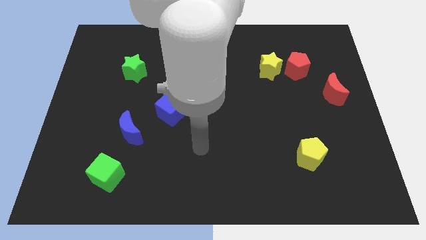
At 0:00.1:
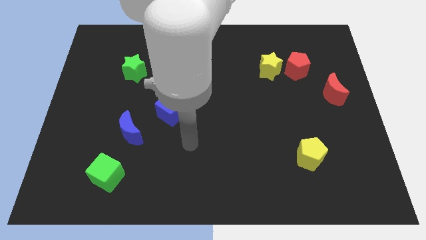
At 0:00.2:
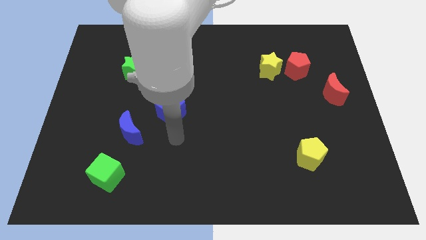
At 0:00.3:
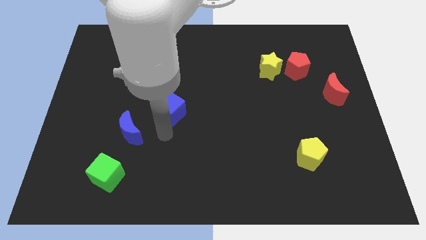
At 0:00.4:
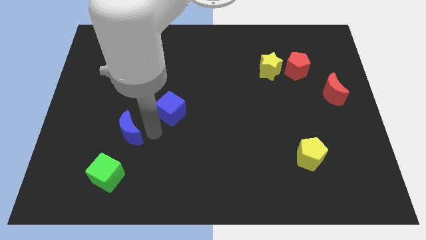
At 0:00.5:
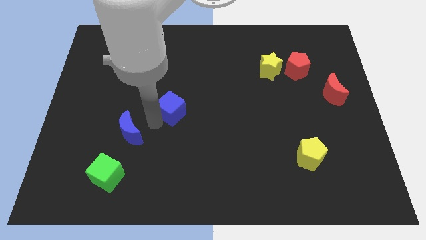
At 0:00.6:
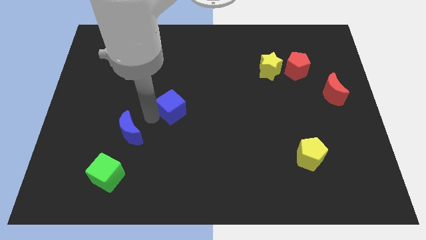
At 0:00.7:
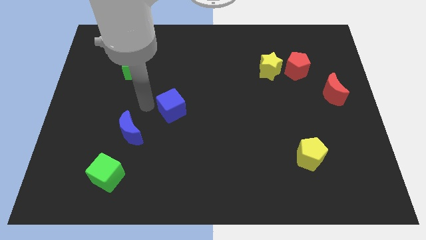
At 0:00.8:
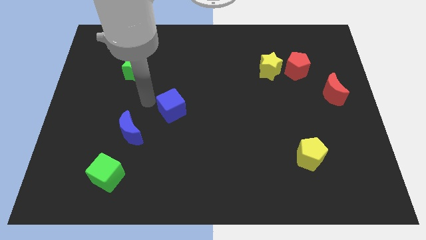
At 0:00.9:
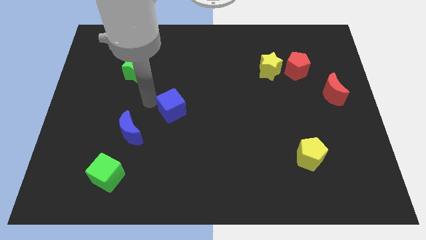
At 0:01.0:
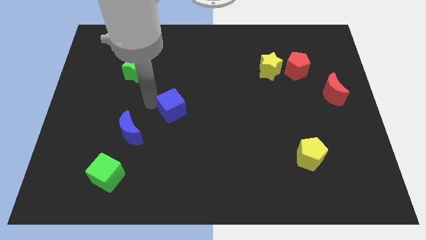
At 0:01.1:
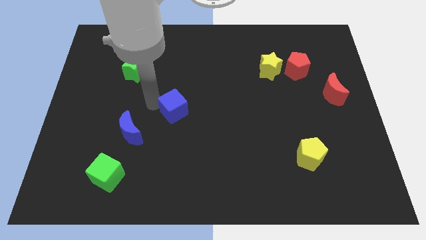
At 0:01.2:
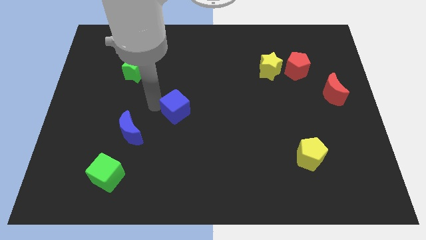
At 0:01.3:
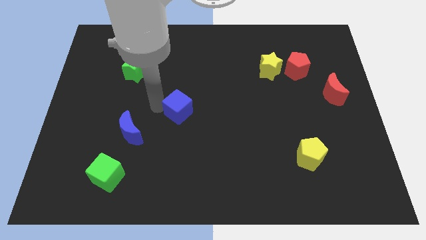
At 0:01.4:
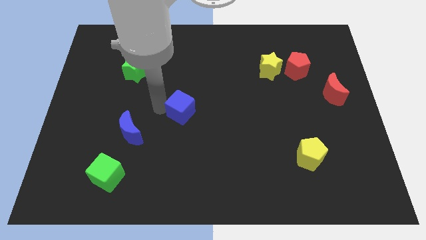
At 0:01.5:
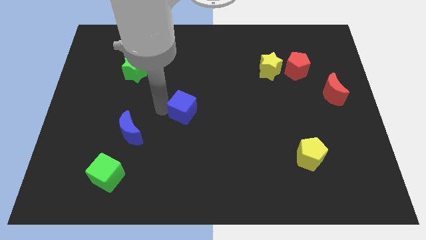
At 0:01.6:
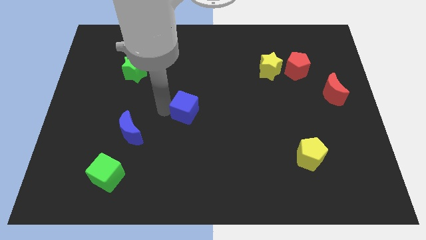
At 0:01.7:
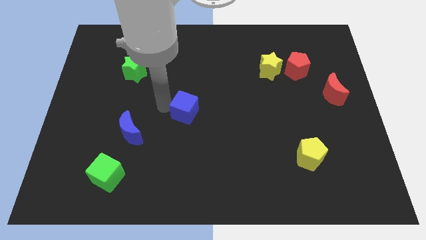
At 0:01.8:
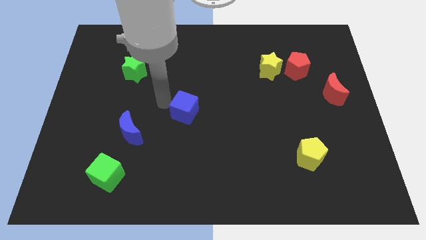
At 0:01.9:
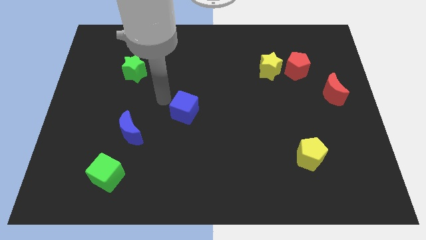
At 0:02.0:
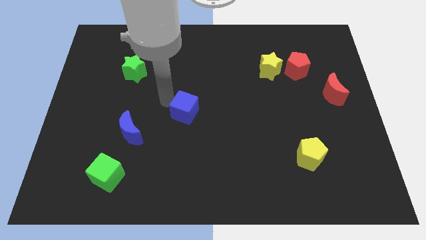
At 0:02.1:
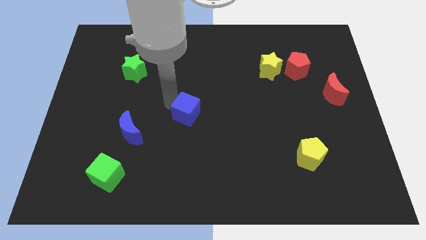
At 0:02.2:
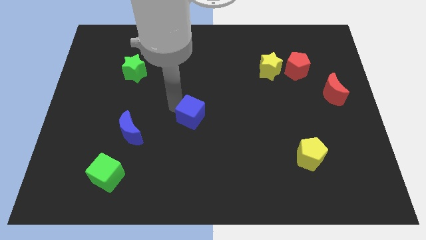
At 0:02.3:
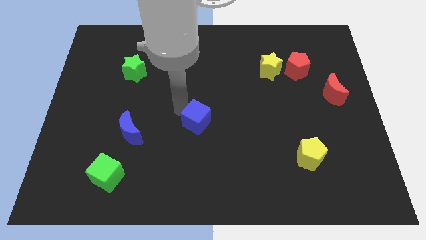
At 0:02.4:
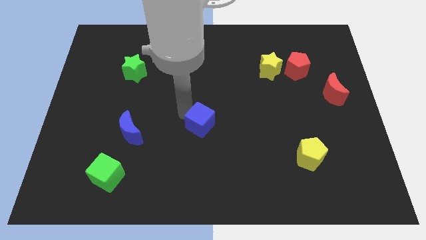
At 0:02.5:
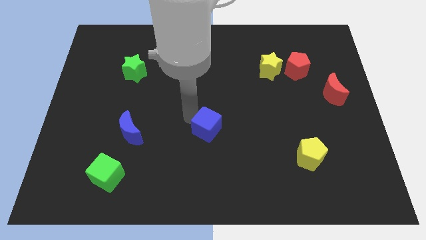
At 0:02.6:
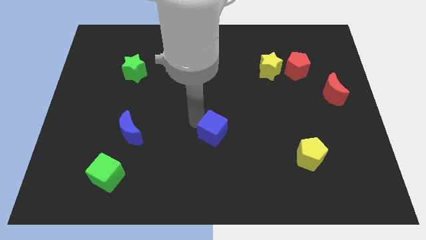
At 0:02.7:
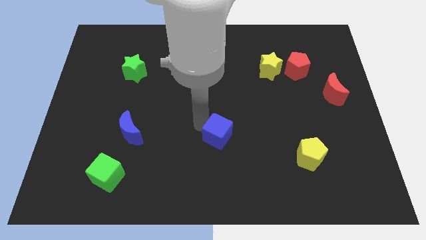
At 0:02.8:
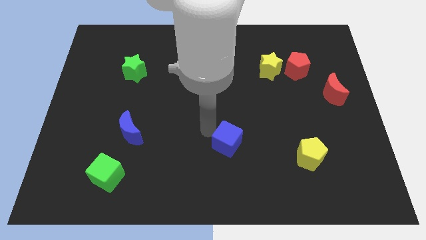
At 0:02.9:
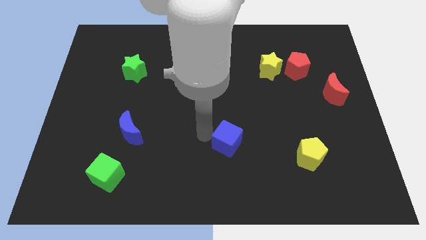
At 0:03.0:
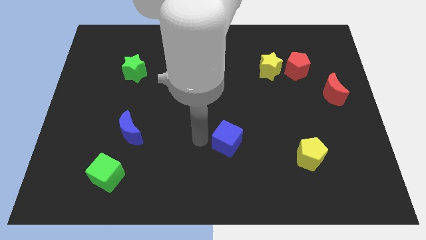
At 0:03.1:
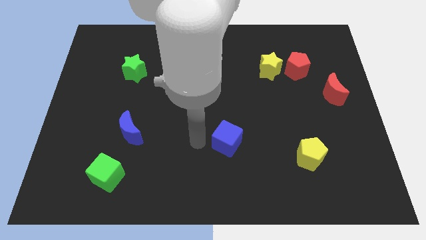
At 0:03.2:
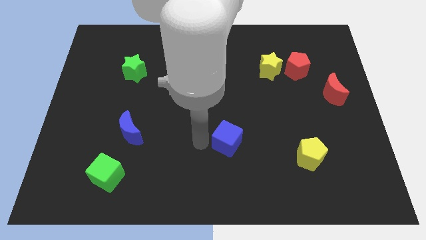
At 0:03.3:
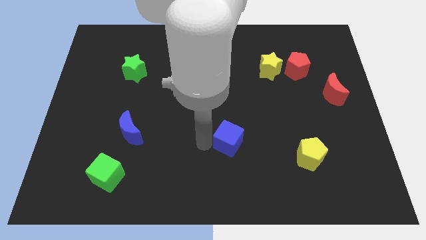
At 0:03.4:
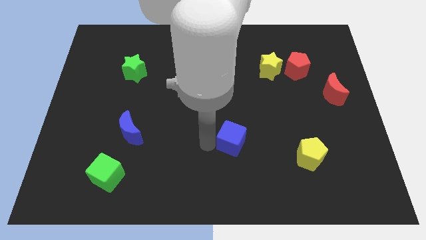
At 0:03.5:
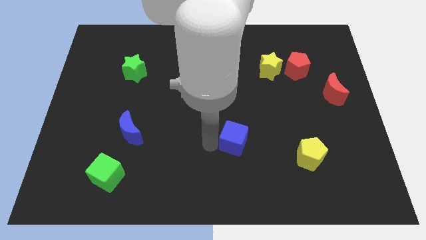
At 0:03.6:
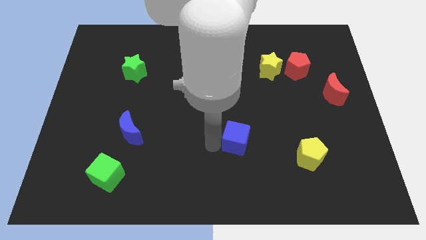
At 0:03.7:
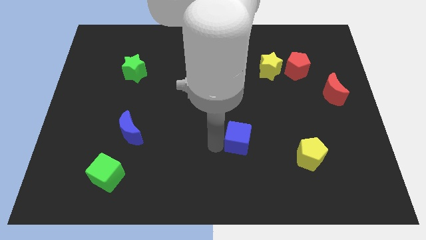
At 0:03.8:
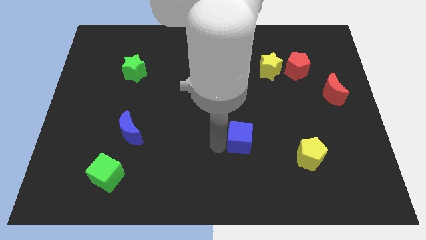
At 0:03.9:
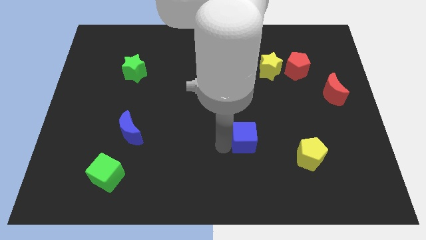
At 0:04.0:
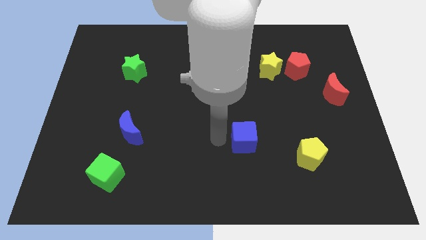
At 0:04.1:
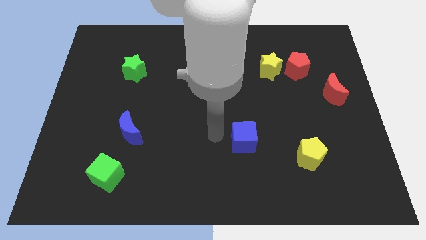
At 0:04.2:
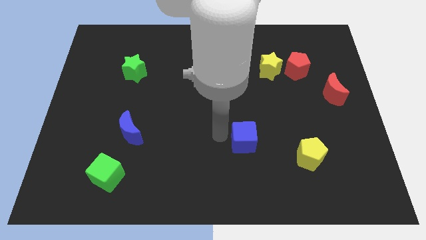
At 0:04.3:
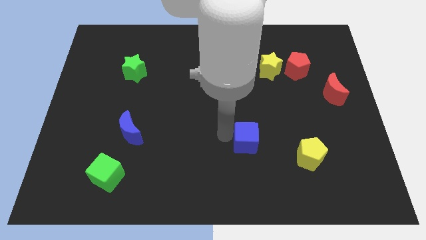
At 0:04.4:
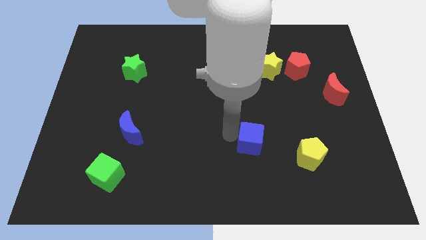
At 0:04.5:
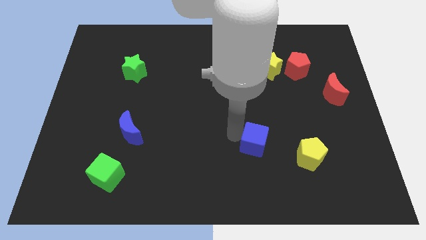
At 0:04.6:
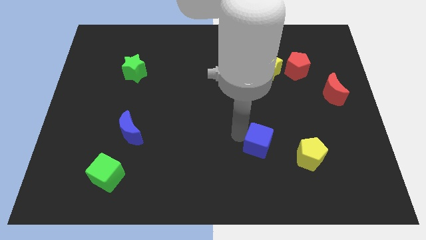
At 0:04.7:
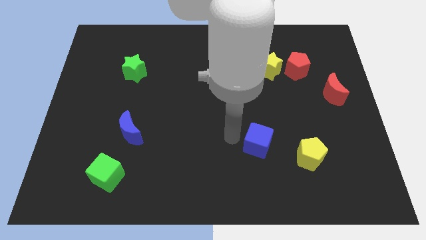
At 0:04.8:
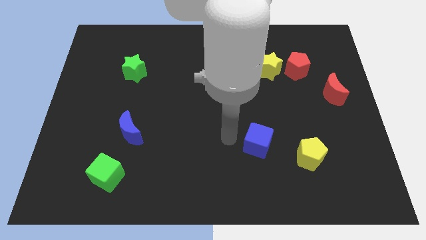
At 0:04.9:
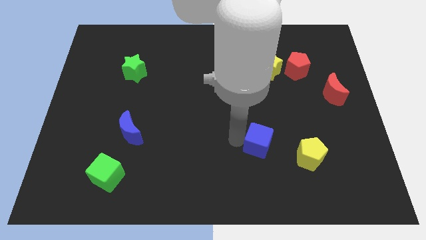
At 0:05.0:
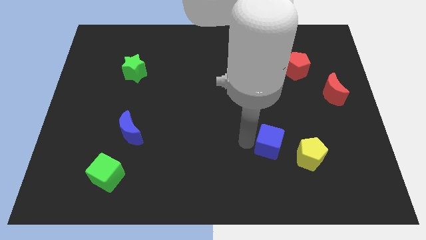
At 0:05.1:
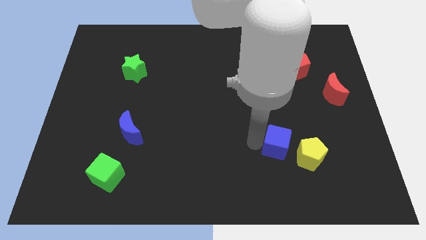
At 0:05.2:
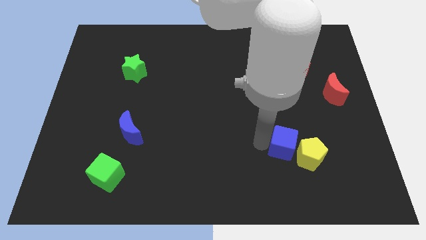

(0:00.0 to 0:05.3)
move the blue cube next to the yellow pentagon

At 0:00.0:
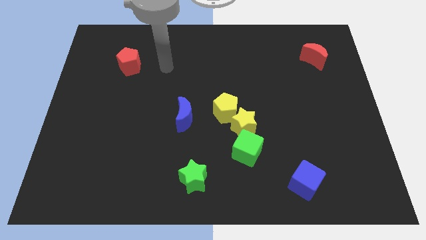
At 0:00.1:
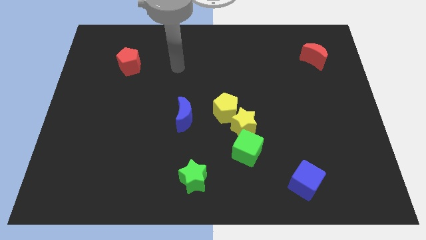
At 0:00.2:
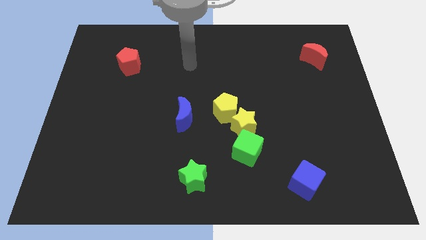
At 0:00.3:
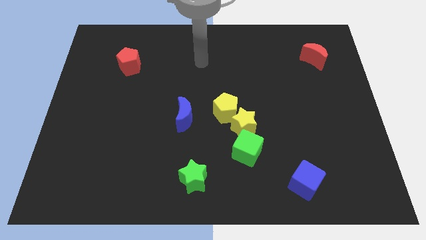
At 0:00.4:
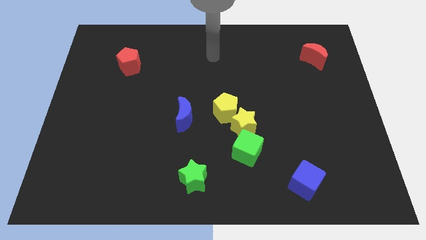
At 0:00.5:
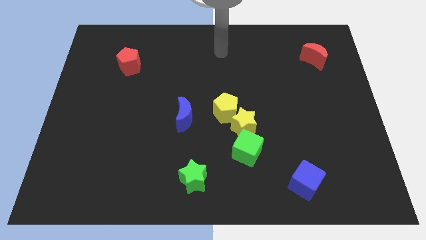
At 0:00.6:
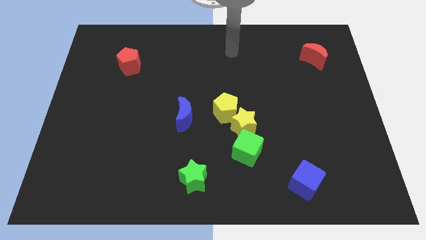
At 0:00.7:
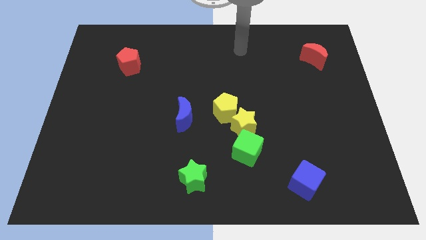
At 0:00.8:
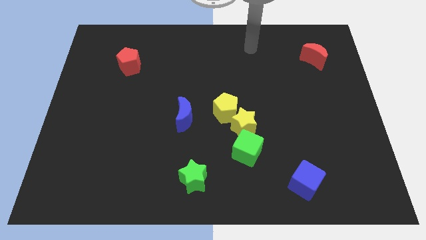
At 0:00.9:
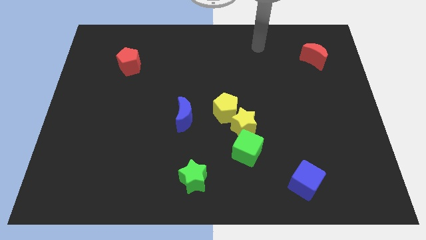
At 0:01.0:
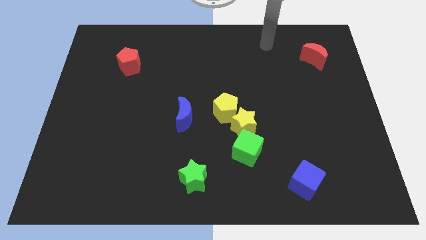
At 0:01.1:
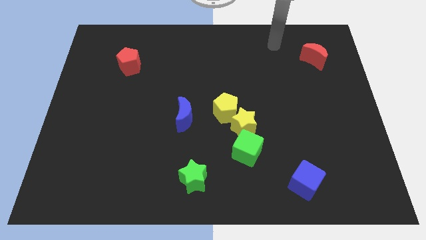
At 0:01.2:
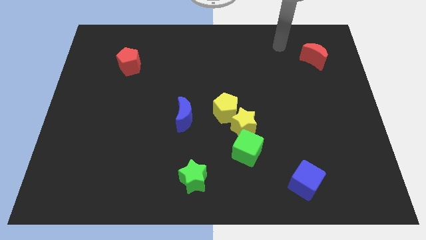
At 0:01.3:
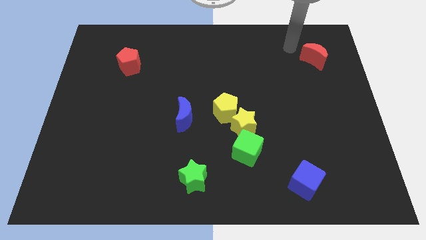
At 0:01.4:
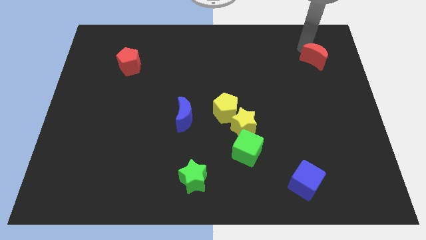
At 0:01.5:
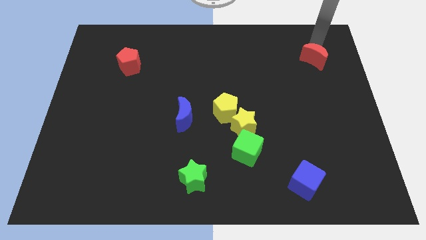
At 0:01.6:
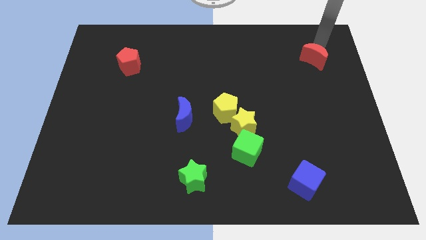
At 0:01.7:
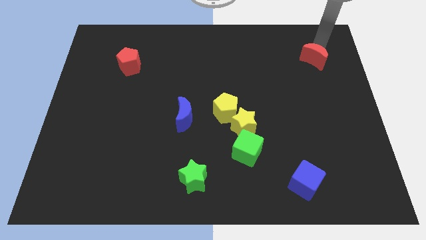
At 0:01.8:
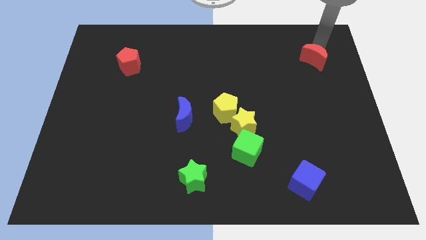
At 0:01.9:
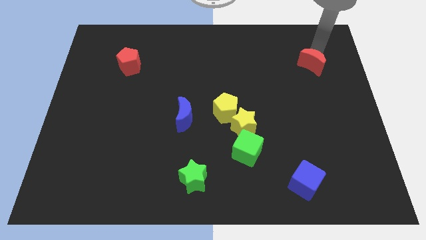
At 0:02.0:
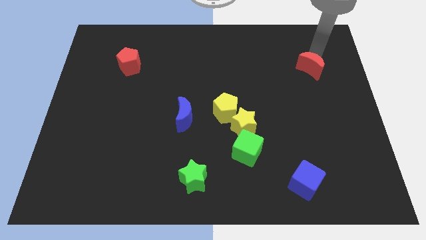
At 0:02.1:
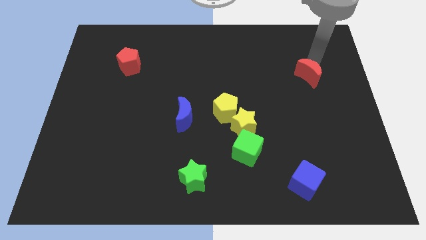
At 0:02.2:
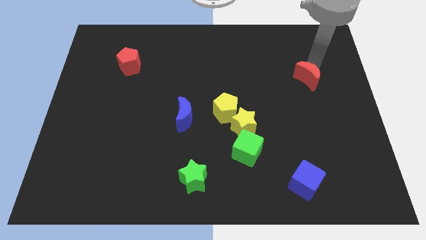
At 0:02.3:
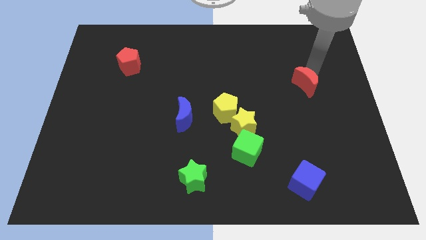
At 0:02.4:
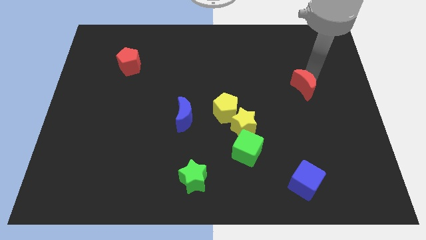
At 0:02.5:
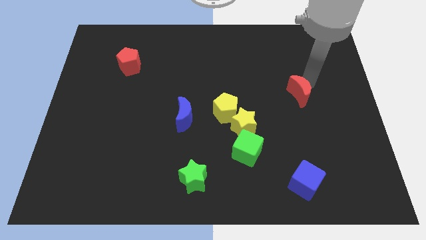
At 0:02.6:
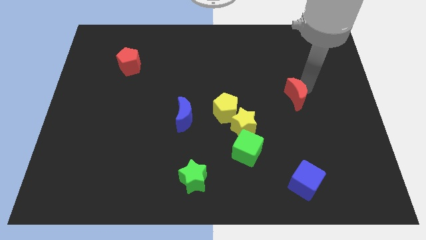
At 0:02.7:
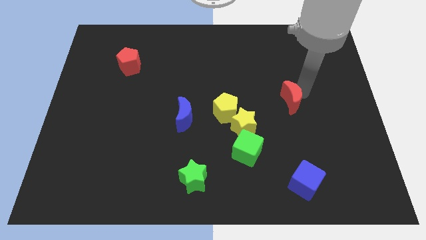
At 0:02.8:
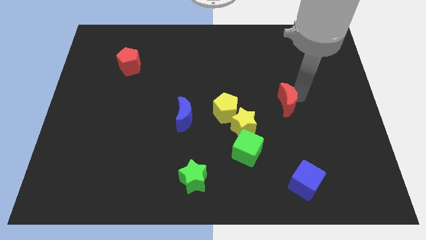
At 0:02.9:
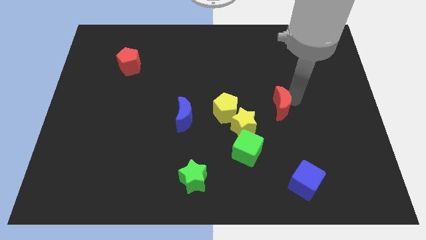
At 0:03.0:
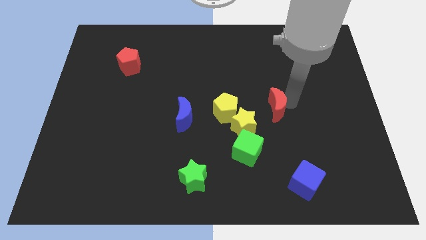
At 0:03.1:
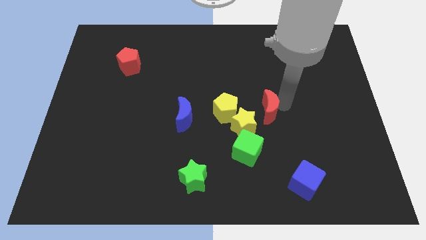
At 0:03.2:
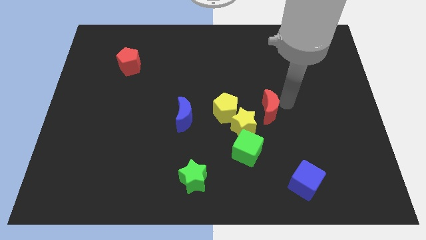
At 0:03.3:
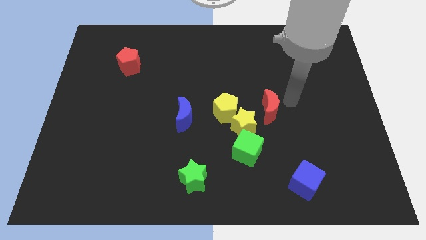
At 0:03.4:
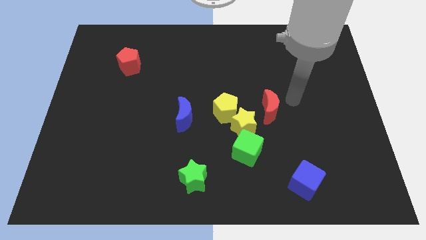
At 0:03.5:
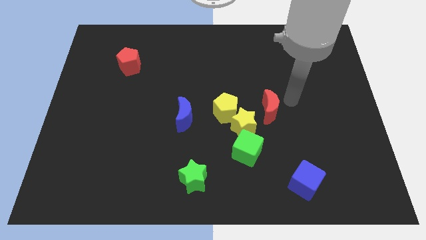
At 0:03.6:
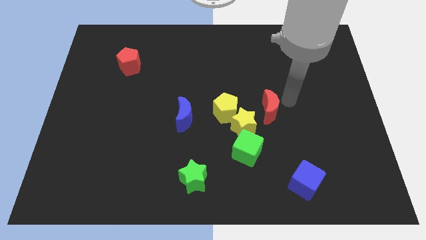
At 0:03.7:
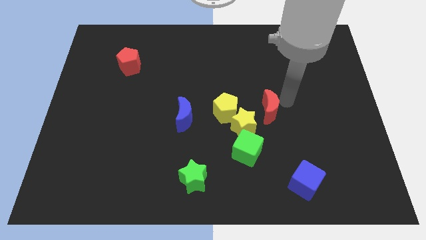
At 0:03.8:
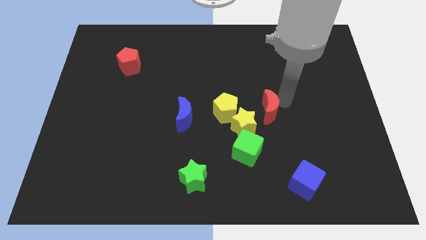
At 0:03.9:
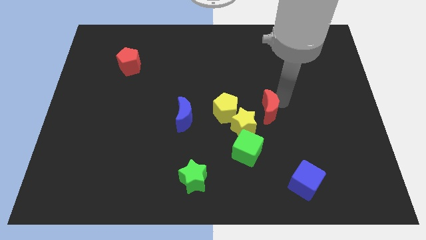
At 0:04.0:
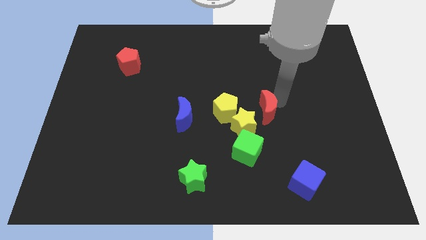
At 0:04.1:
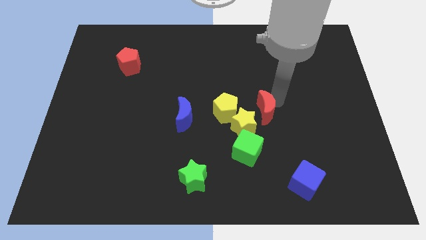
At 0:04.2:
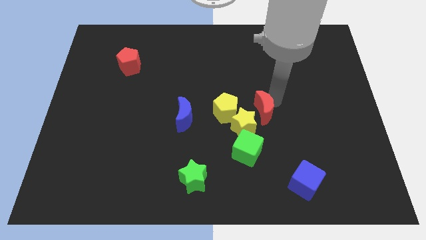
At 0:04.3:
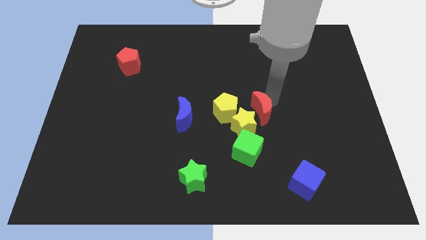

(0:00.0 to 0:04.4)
slide the red moon to the yellow star
